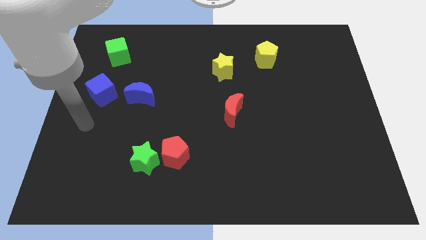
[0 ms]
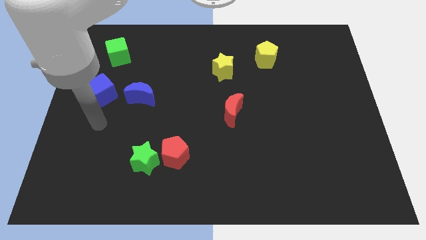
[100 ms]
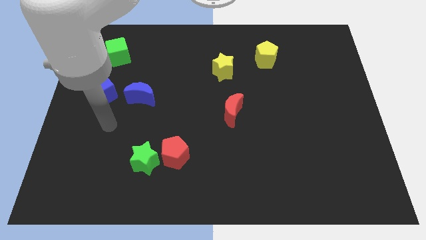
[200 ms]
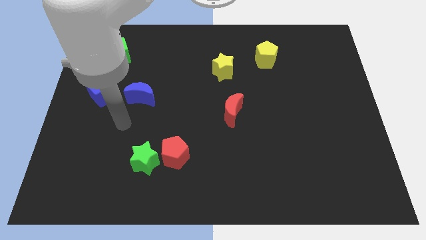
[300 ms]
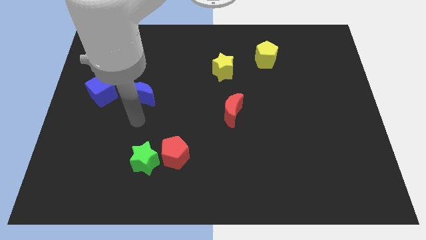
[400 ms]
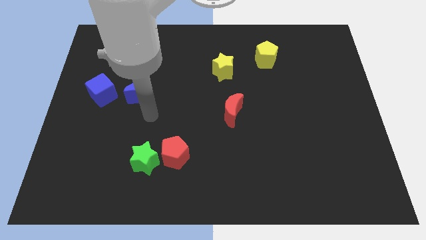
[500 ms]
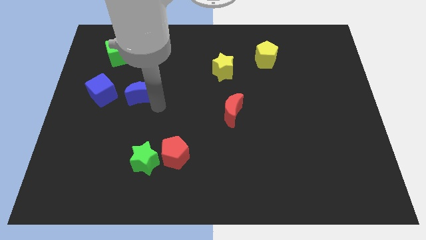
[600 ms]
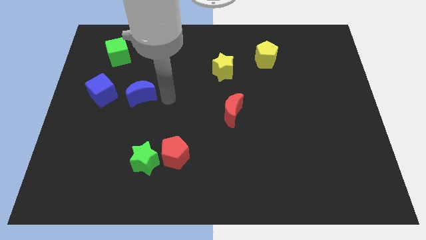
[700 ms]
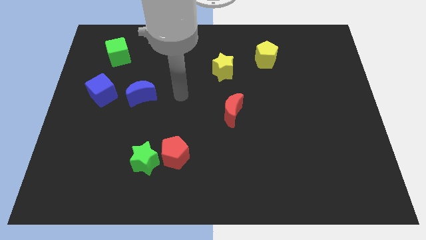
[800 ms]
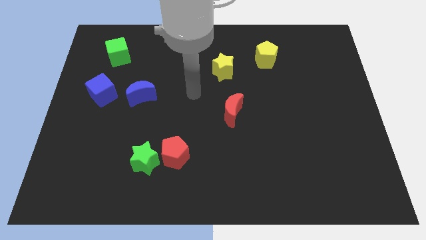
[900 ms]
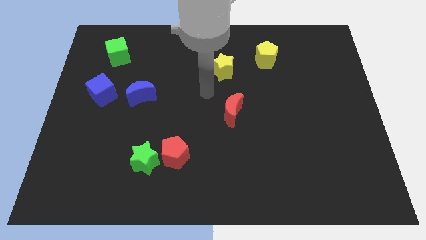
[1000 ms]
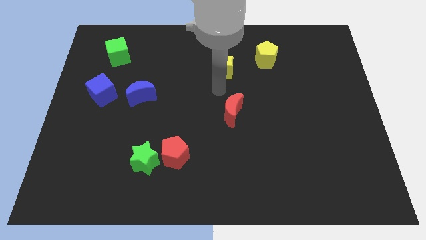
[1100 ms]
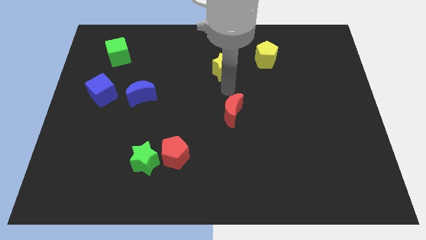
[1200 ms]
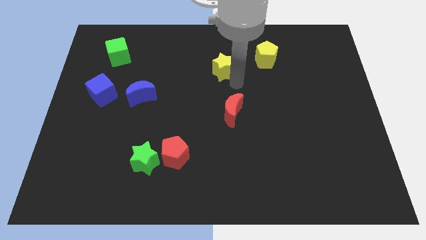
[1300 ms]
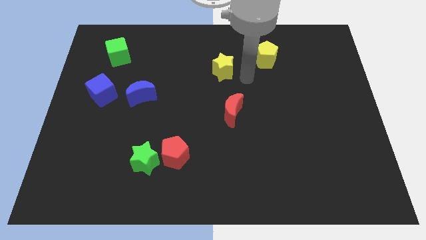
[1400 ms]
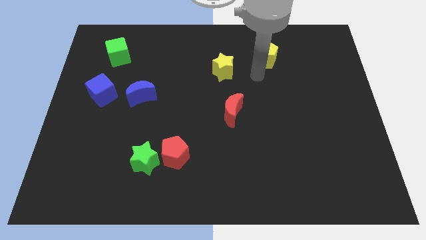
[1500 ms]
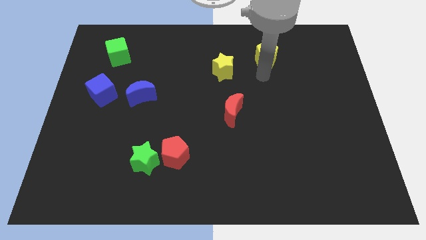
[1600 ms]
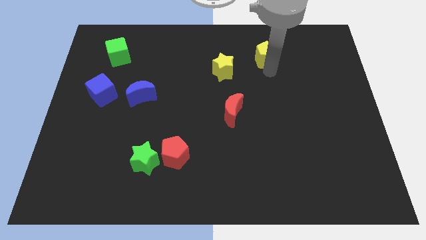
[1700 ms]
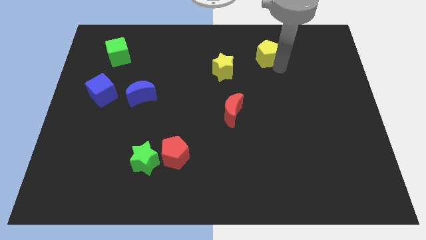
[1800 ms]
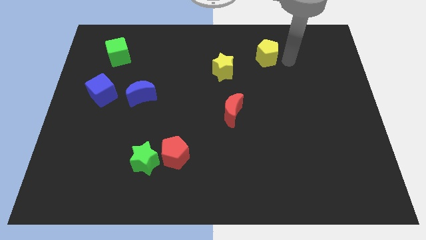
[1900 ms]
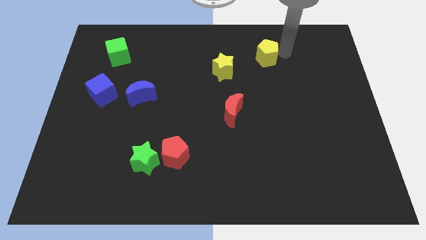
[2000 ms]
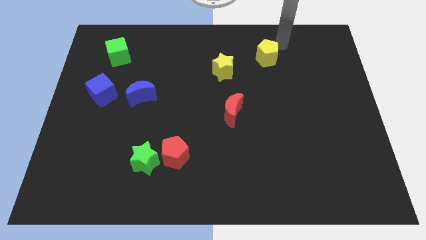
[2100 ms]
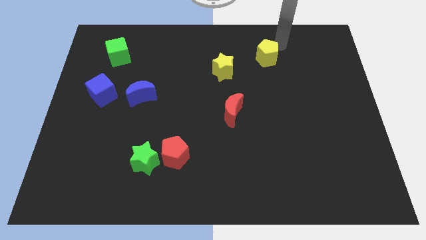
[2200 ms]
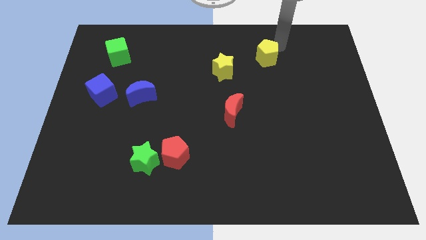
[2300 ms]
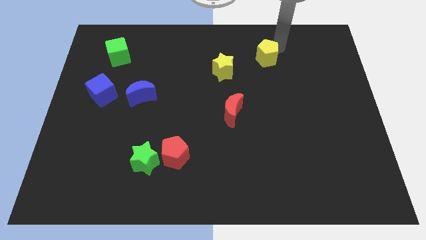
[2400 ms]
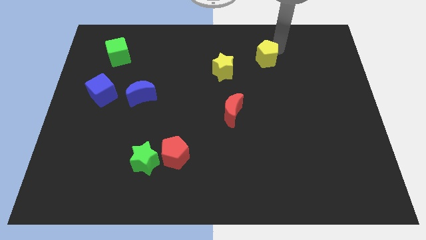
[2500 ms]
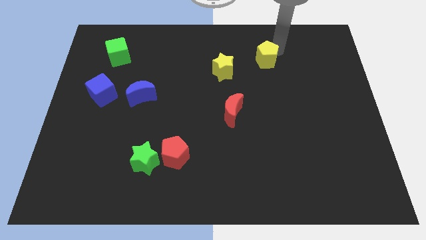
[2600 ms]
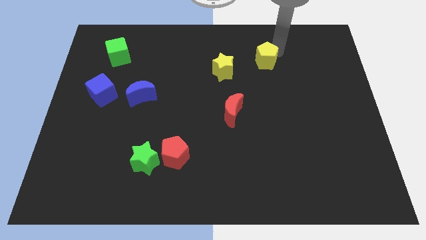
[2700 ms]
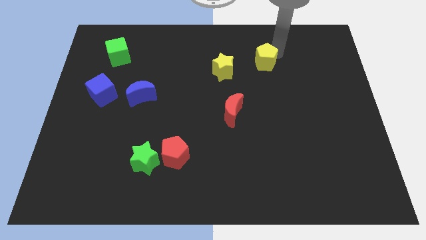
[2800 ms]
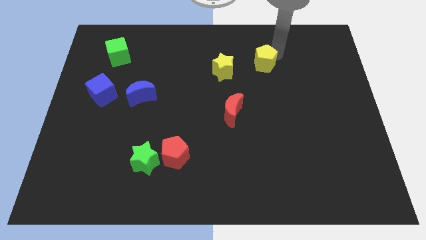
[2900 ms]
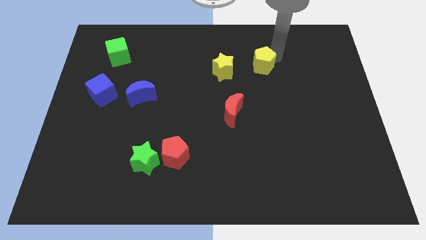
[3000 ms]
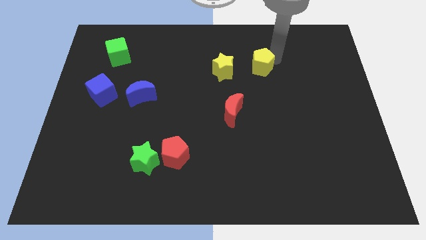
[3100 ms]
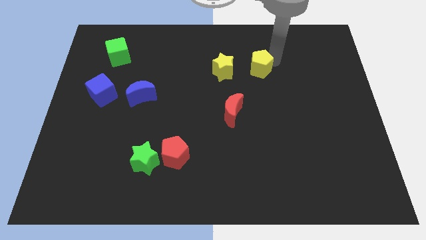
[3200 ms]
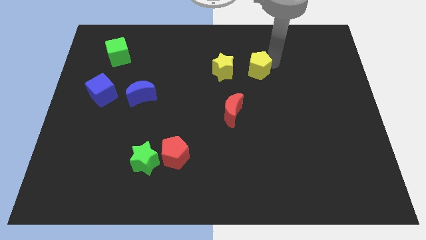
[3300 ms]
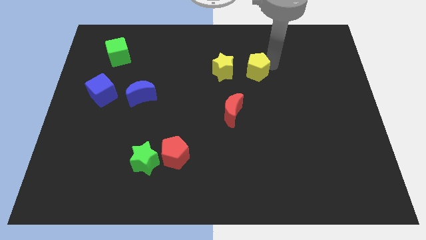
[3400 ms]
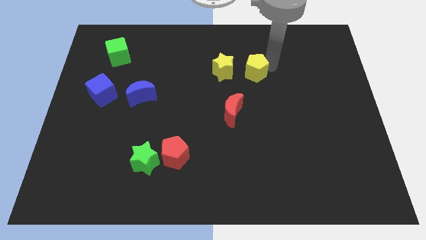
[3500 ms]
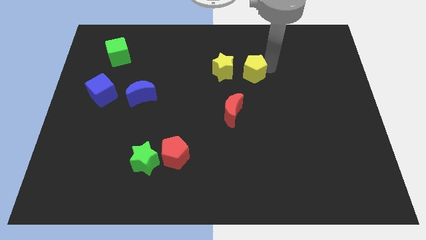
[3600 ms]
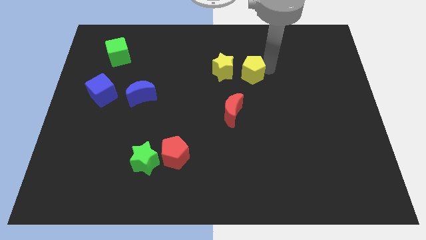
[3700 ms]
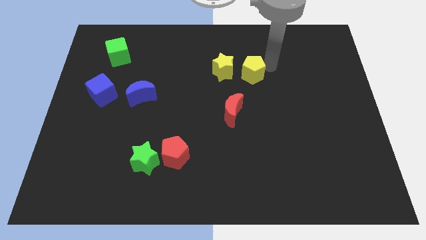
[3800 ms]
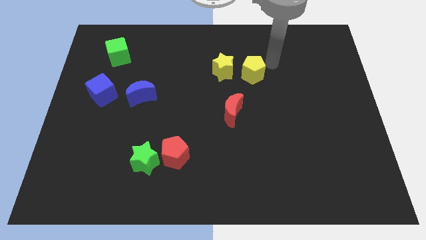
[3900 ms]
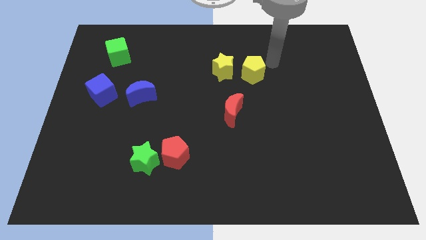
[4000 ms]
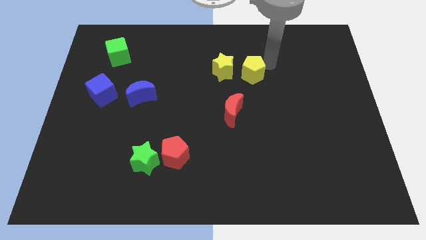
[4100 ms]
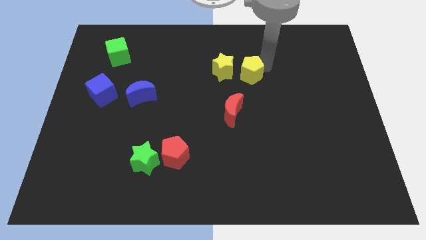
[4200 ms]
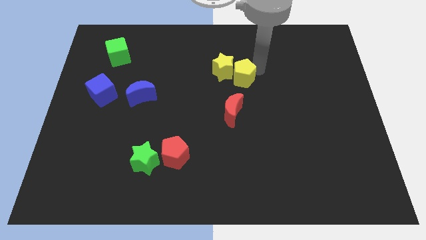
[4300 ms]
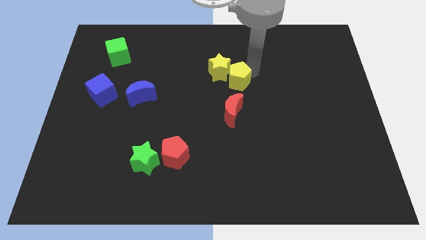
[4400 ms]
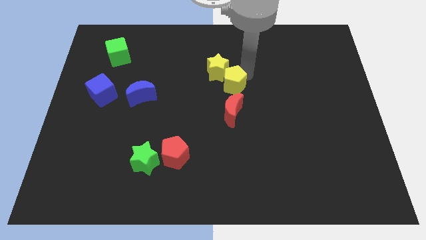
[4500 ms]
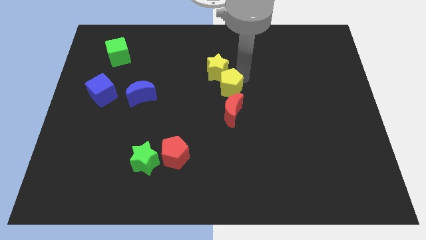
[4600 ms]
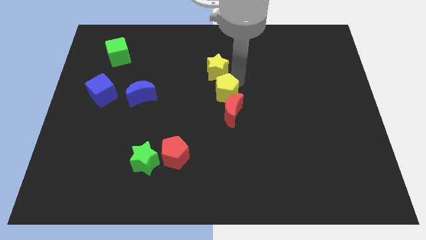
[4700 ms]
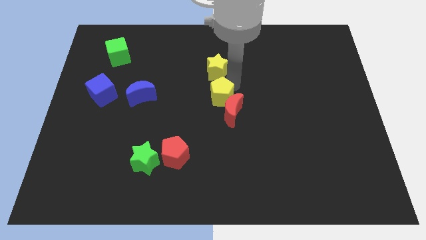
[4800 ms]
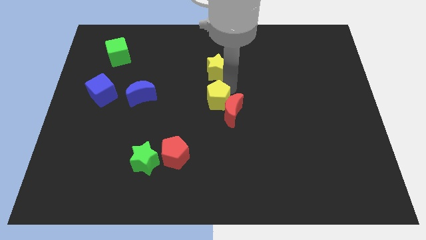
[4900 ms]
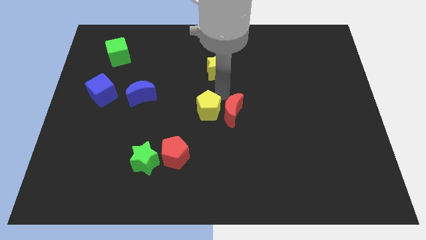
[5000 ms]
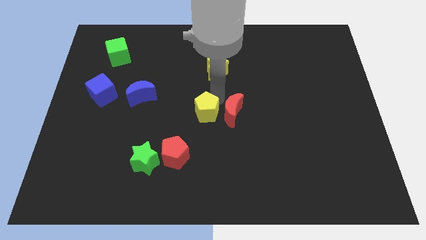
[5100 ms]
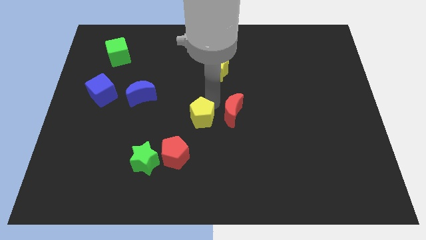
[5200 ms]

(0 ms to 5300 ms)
push the yellow pentagon diagonally up and to the right of the red pentagon

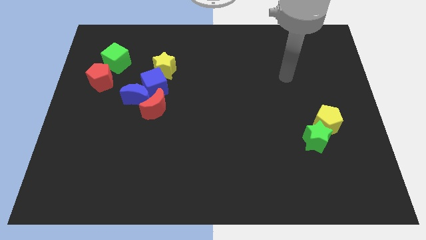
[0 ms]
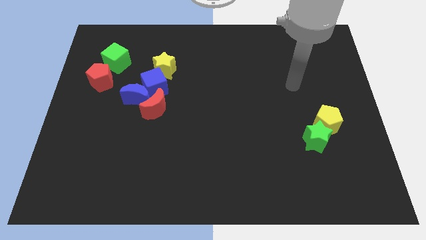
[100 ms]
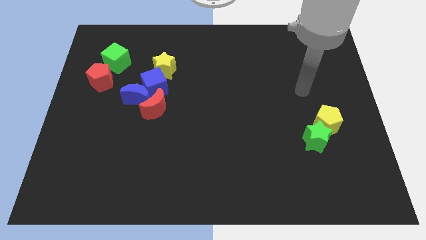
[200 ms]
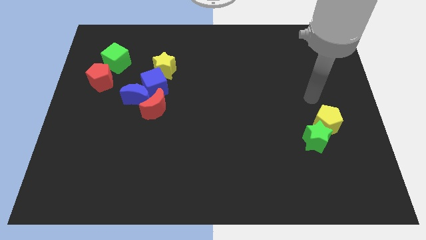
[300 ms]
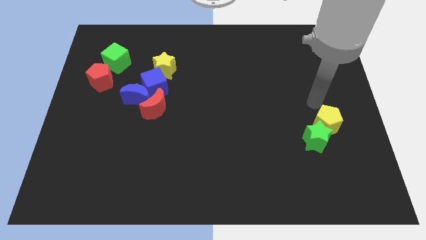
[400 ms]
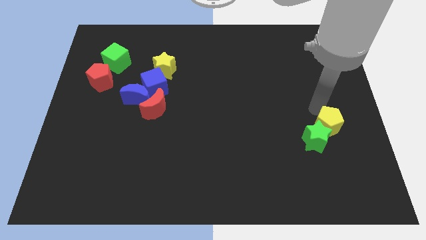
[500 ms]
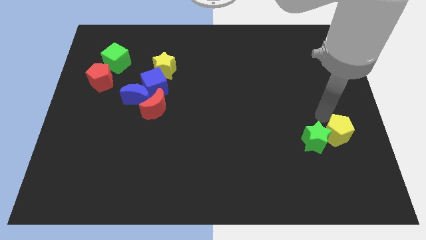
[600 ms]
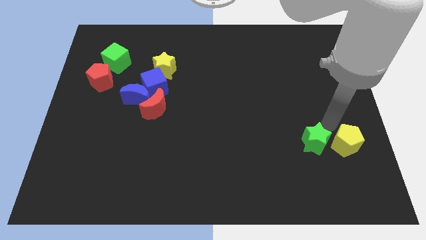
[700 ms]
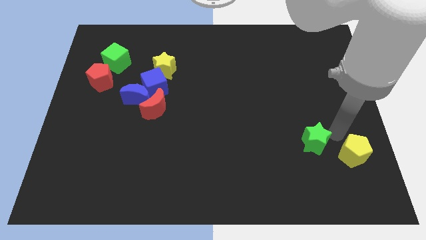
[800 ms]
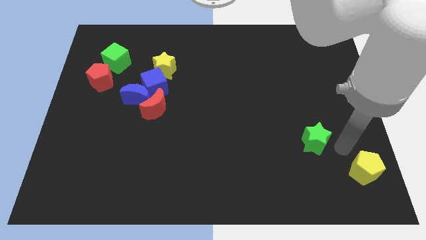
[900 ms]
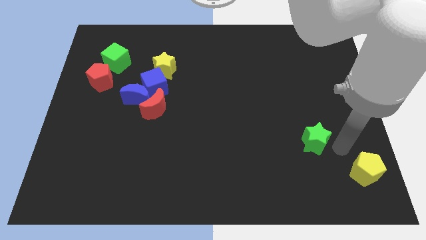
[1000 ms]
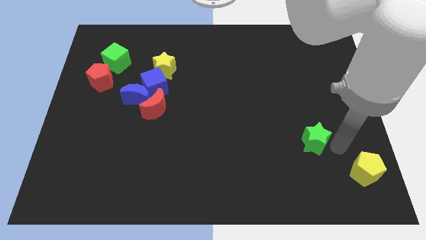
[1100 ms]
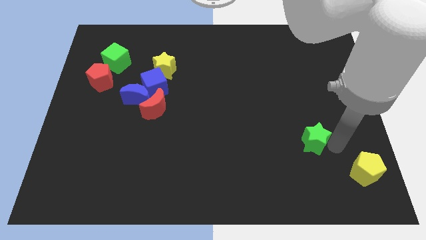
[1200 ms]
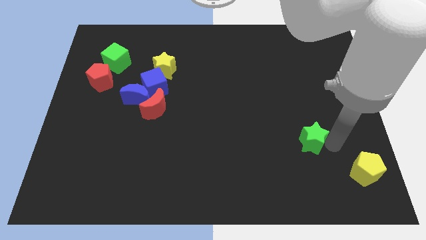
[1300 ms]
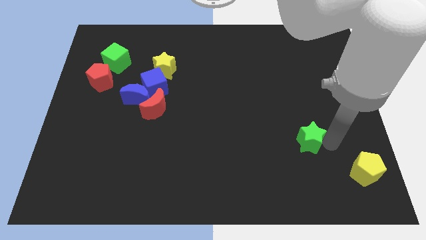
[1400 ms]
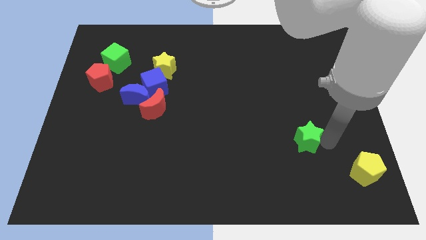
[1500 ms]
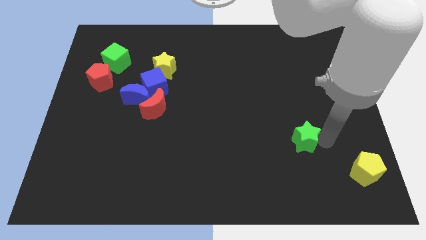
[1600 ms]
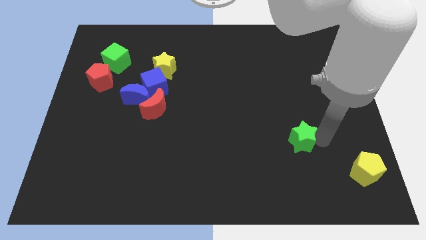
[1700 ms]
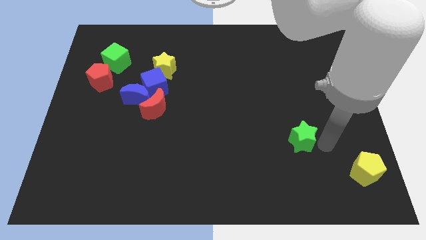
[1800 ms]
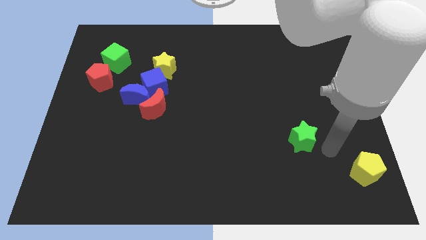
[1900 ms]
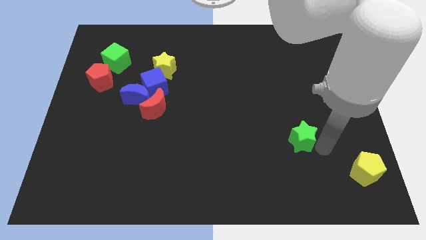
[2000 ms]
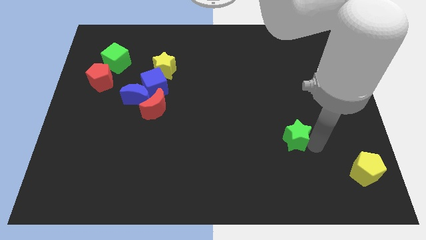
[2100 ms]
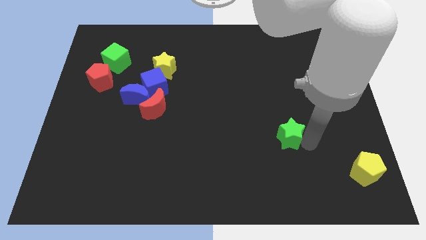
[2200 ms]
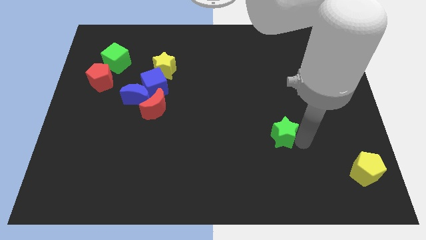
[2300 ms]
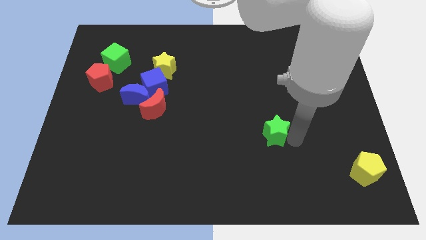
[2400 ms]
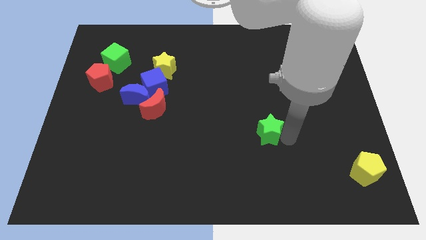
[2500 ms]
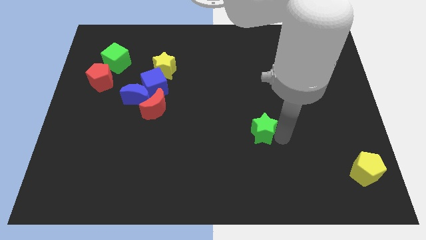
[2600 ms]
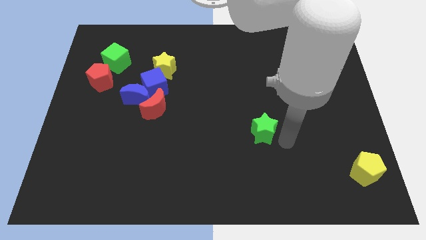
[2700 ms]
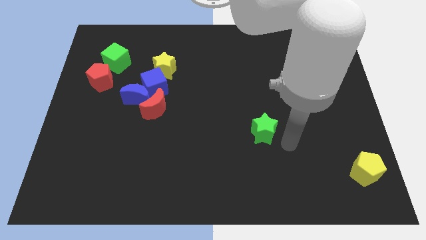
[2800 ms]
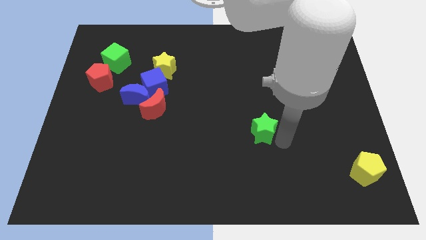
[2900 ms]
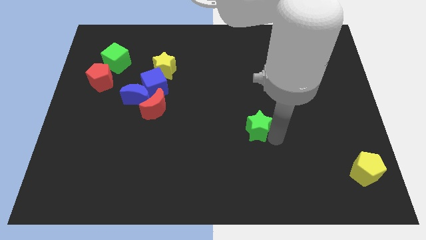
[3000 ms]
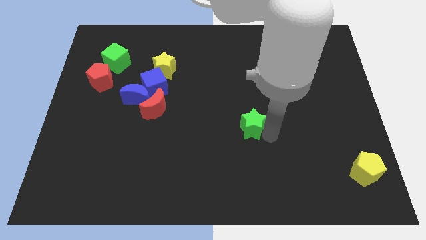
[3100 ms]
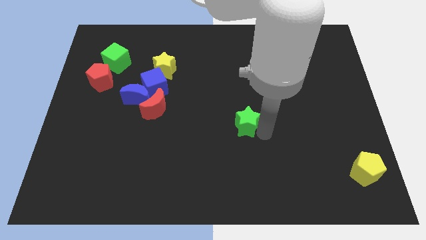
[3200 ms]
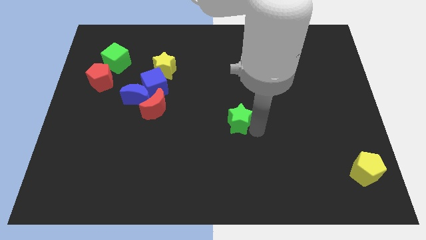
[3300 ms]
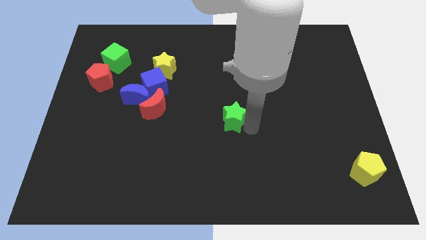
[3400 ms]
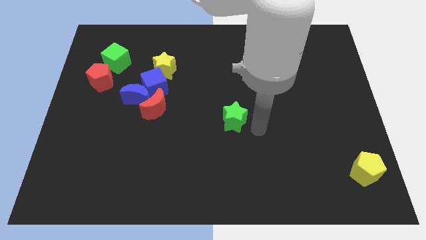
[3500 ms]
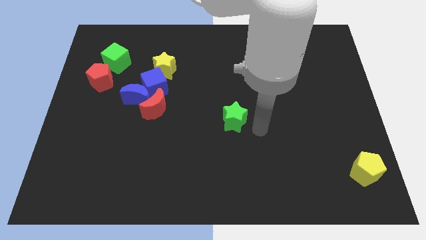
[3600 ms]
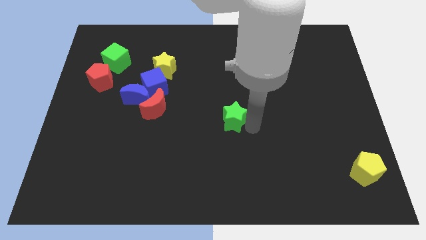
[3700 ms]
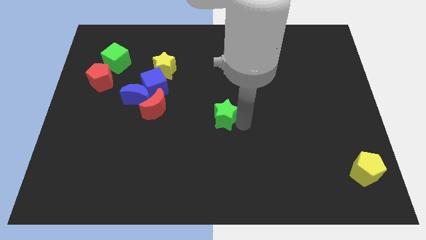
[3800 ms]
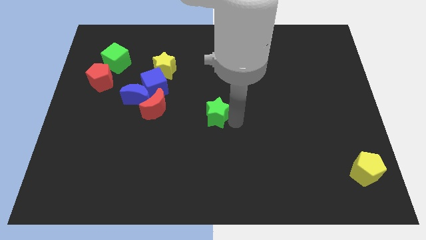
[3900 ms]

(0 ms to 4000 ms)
push the green star to the right side of the red moon
